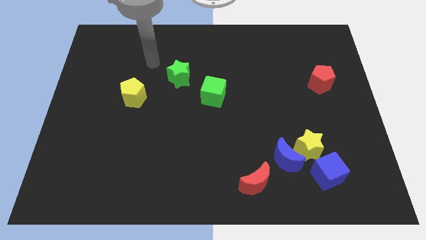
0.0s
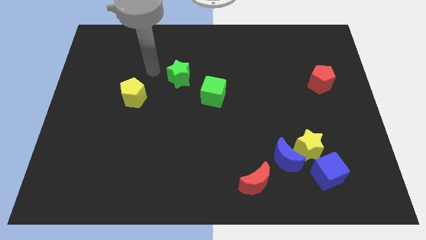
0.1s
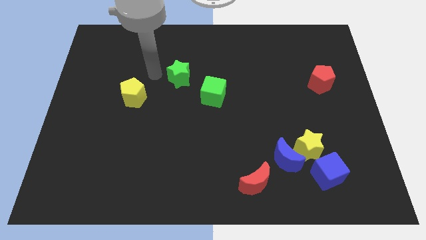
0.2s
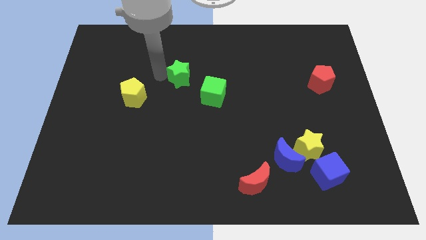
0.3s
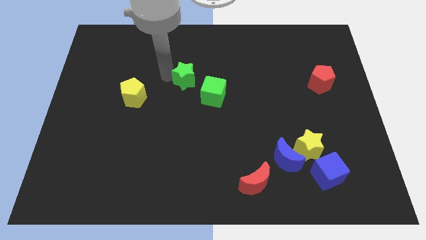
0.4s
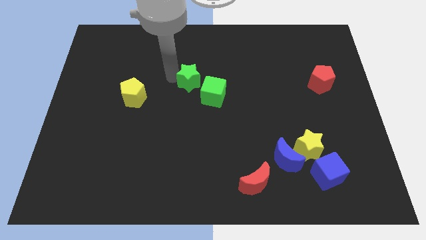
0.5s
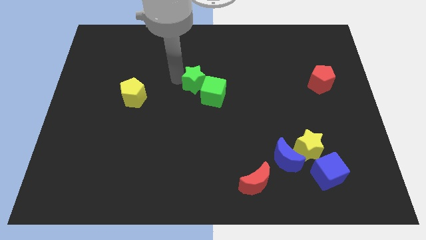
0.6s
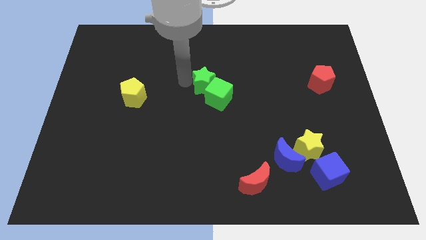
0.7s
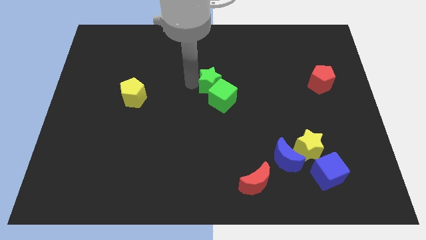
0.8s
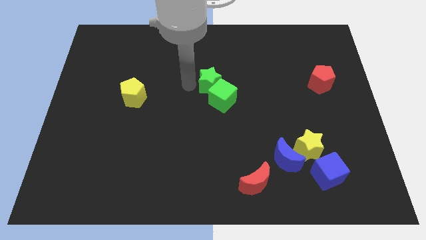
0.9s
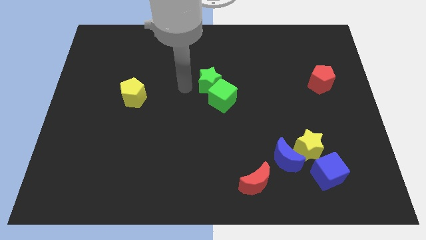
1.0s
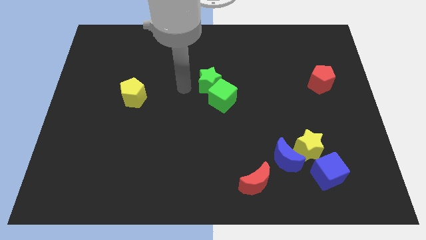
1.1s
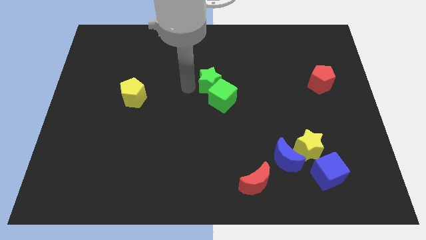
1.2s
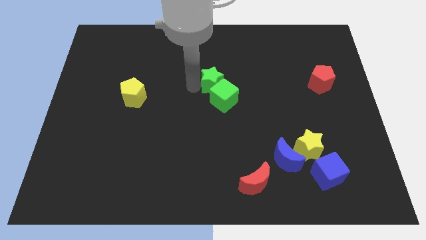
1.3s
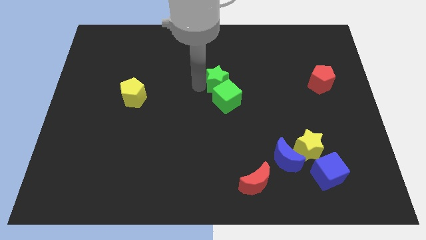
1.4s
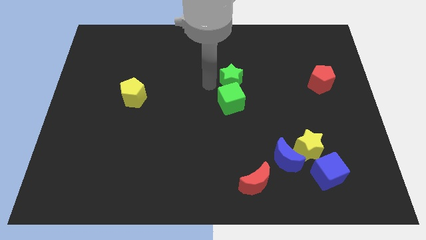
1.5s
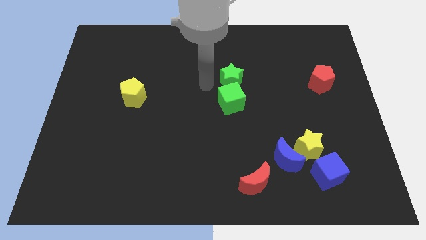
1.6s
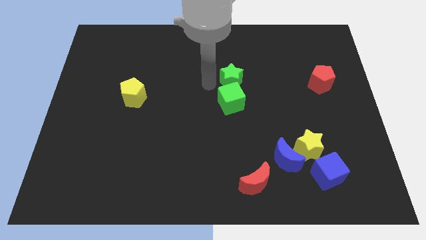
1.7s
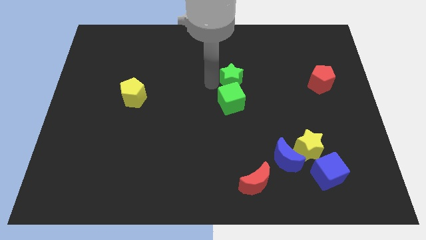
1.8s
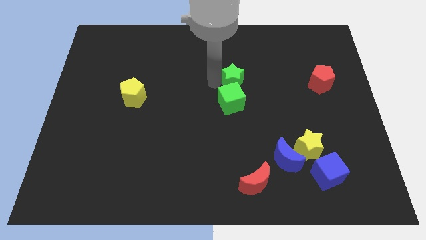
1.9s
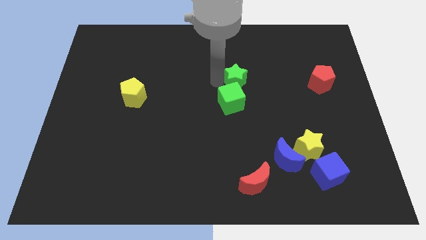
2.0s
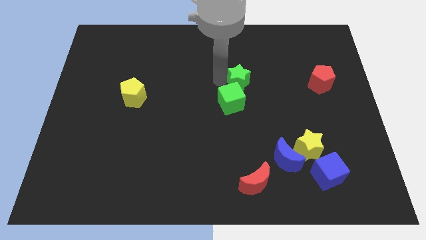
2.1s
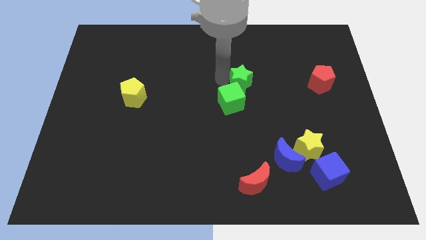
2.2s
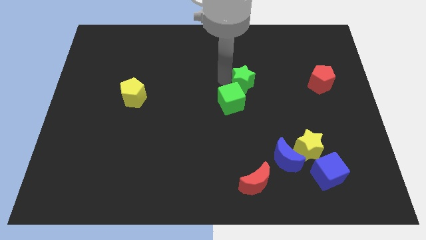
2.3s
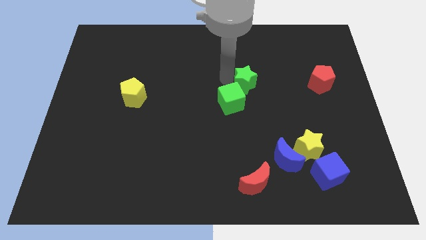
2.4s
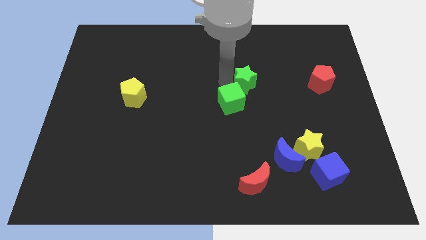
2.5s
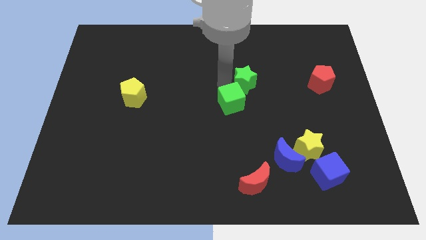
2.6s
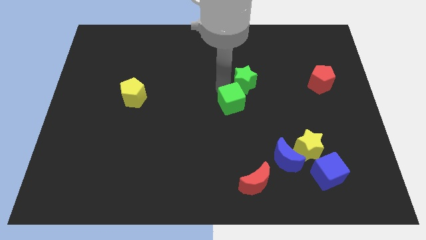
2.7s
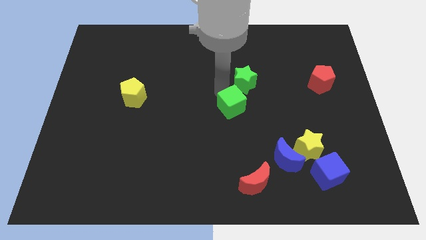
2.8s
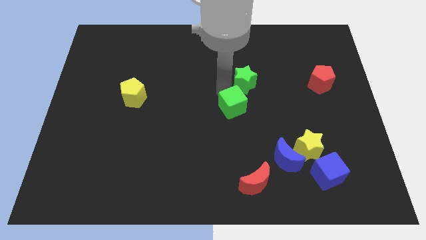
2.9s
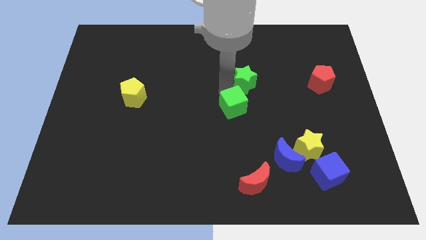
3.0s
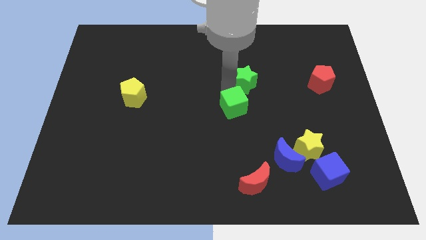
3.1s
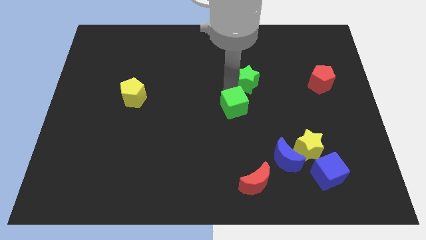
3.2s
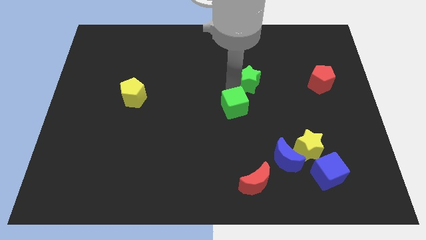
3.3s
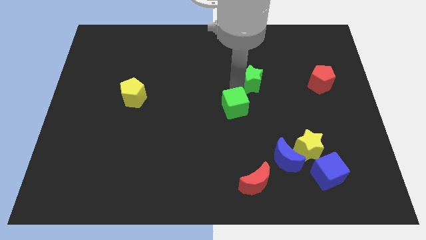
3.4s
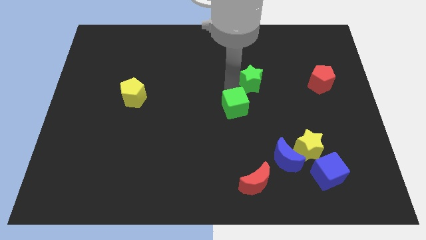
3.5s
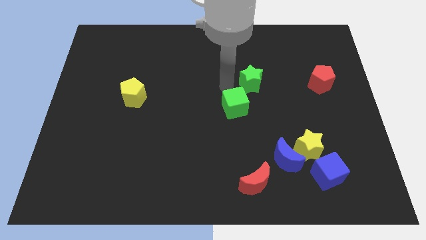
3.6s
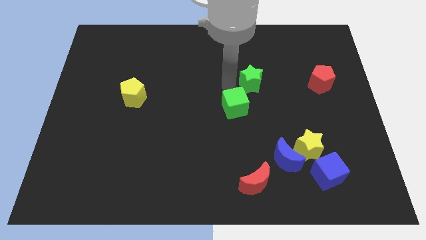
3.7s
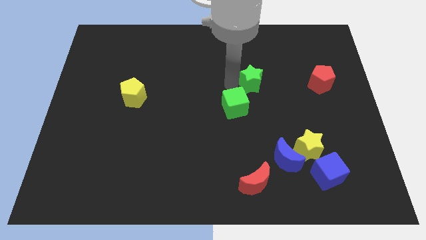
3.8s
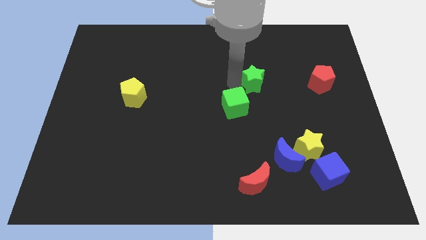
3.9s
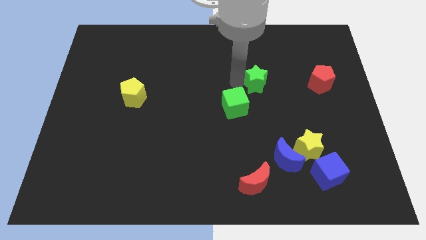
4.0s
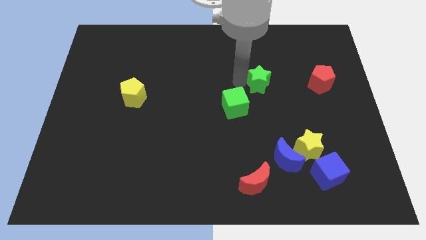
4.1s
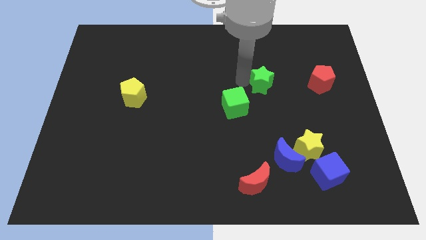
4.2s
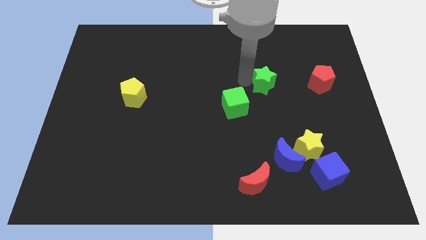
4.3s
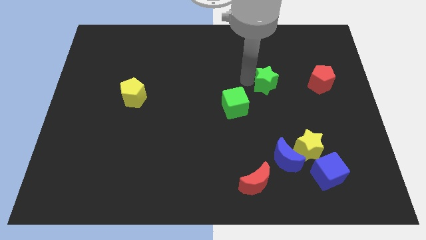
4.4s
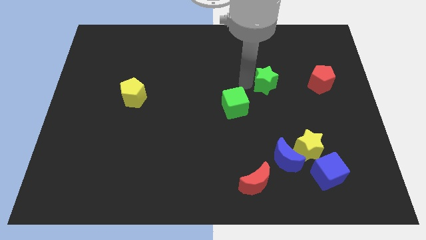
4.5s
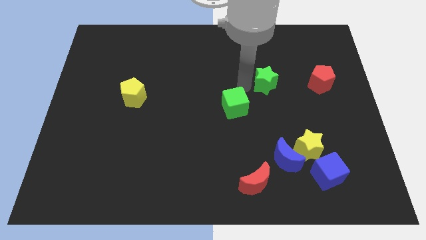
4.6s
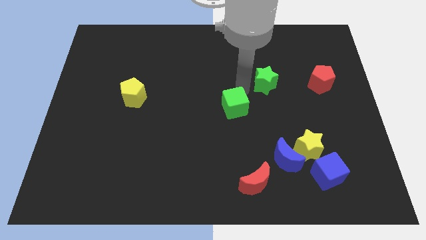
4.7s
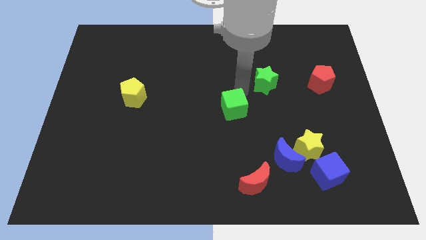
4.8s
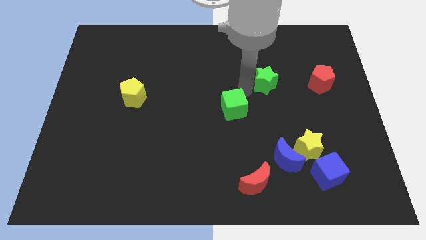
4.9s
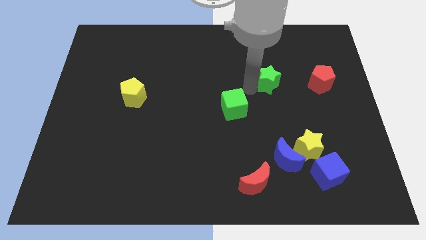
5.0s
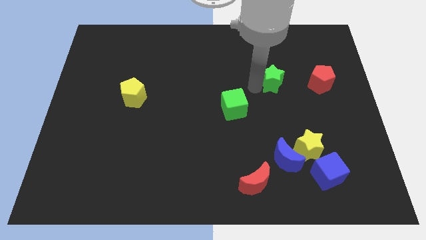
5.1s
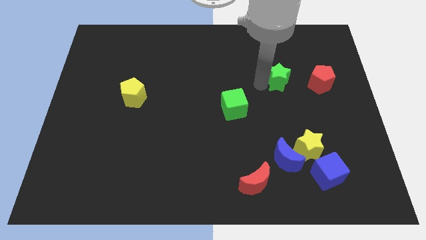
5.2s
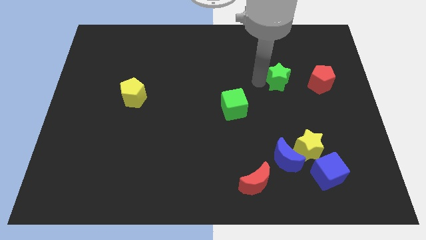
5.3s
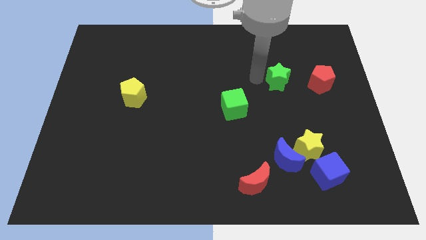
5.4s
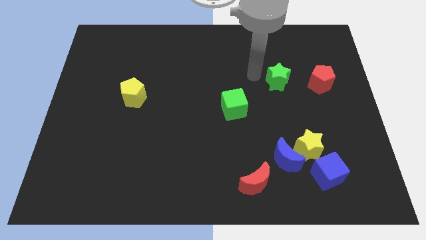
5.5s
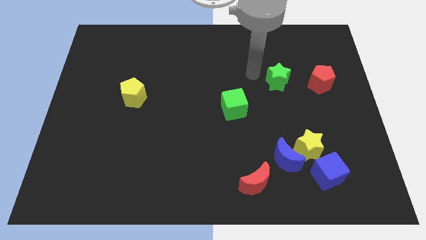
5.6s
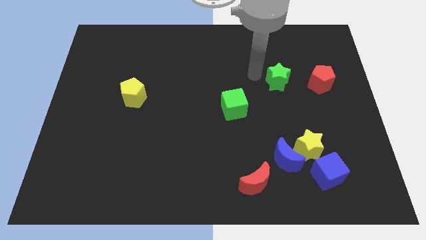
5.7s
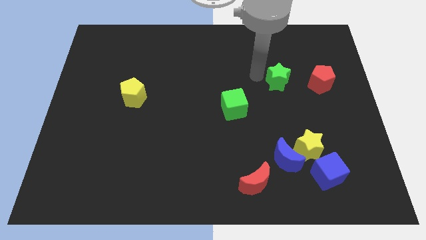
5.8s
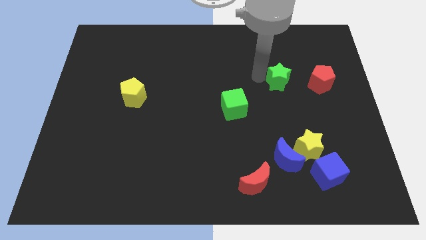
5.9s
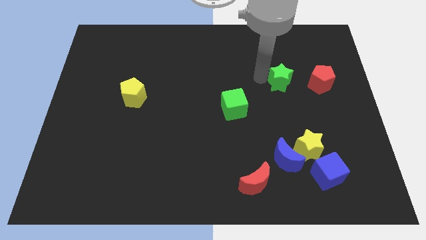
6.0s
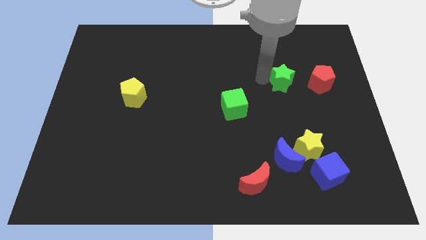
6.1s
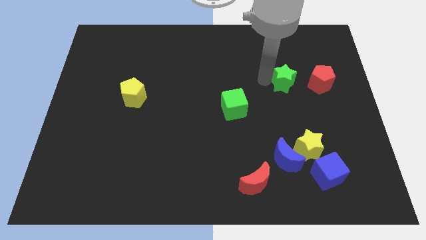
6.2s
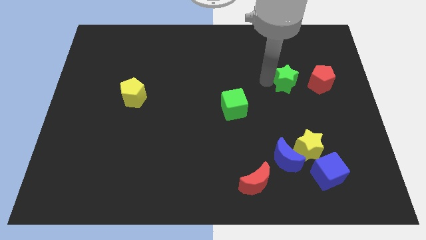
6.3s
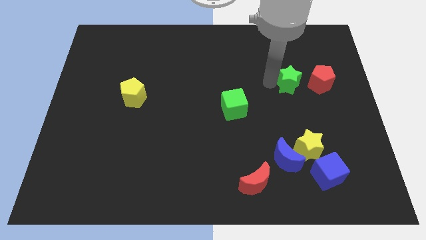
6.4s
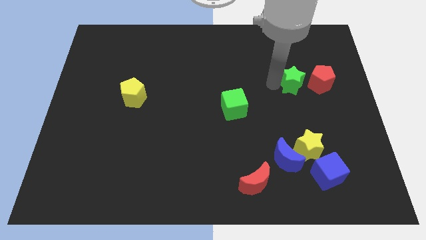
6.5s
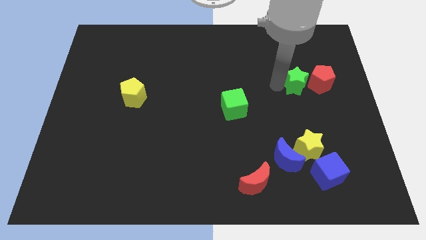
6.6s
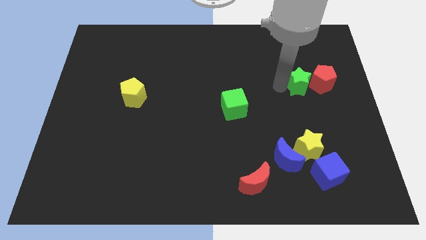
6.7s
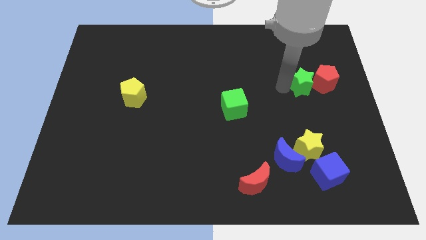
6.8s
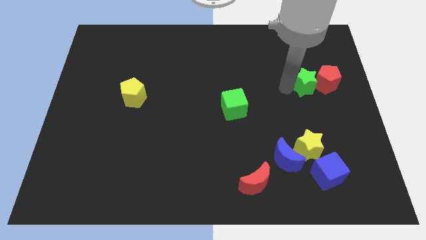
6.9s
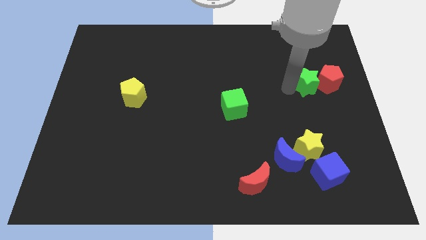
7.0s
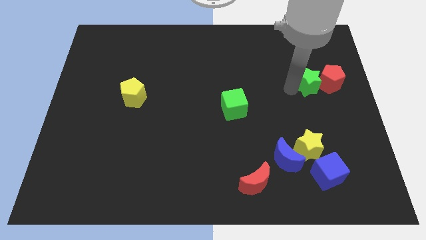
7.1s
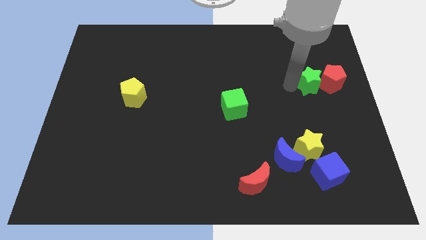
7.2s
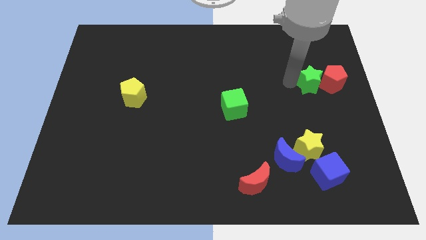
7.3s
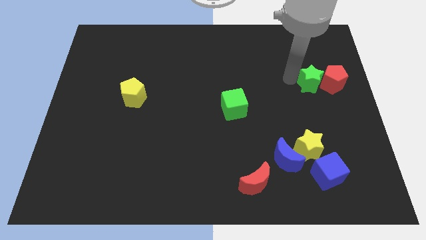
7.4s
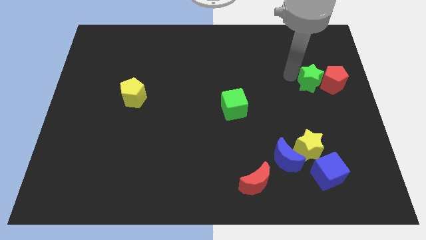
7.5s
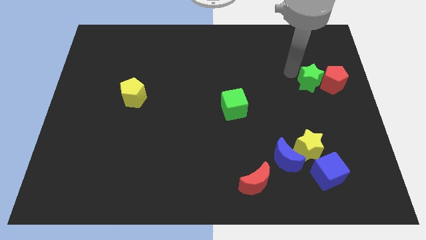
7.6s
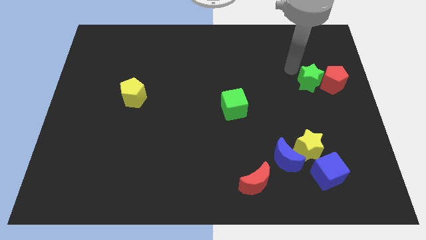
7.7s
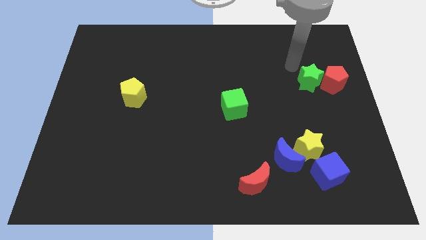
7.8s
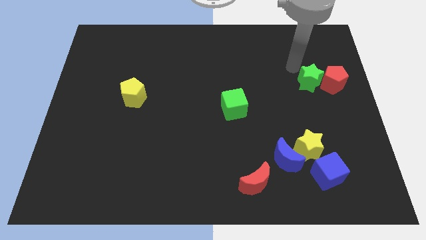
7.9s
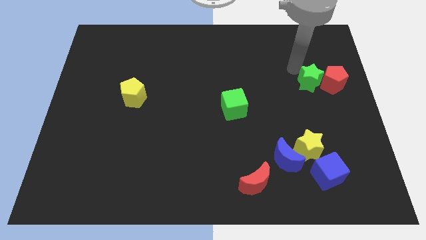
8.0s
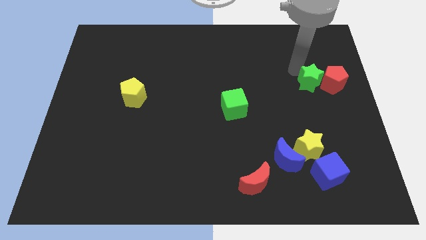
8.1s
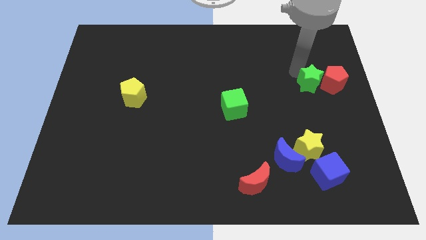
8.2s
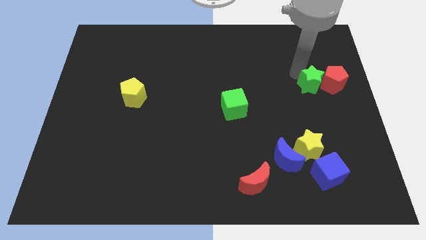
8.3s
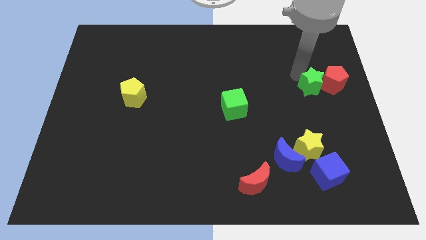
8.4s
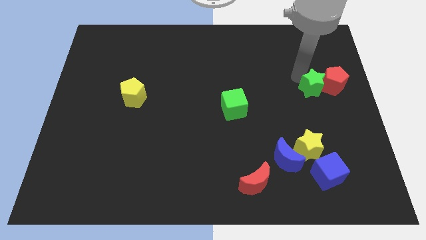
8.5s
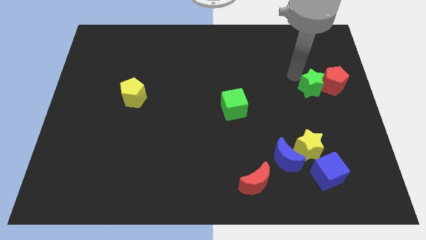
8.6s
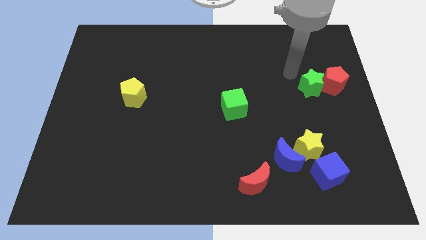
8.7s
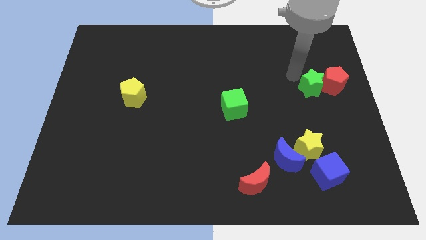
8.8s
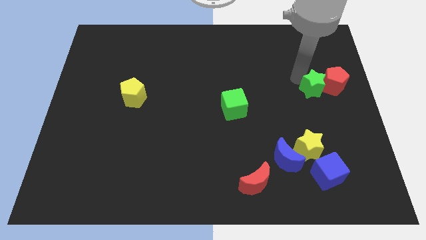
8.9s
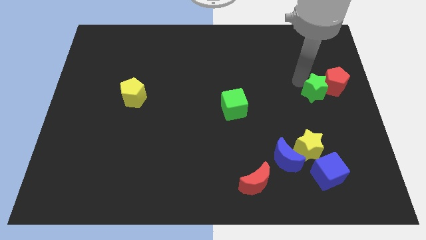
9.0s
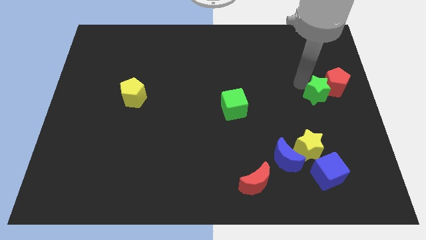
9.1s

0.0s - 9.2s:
put the green star to the right side of the board
